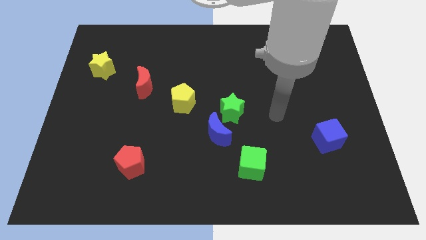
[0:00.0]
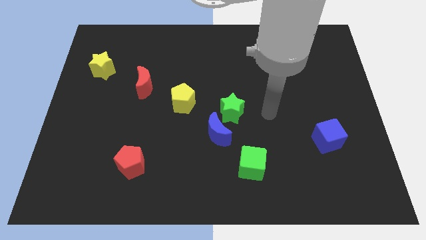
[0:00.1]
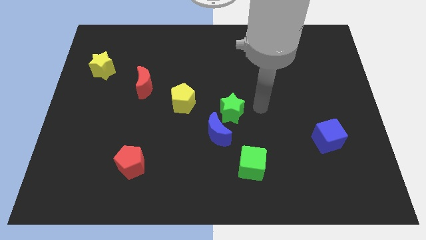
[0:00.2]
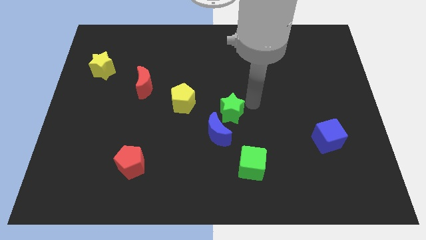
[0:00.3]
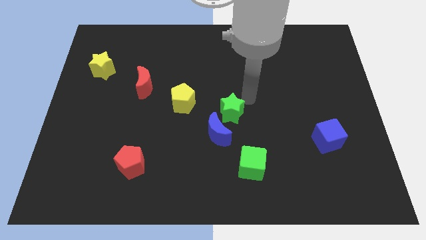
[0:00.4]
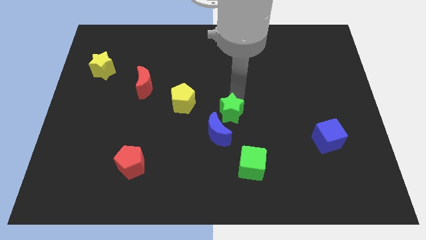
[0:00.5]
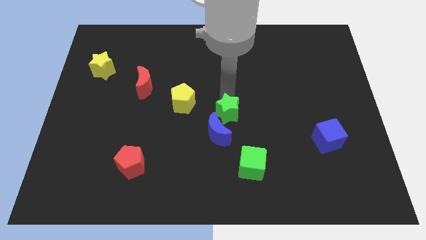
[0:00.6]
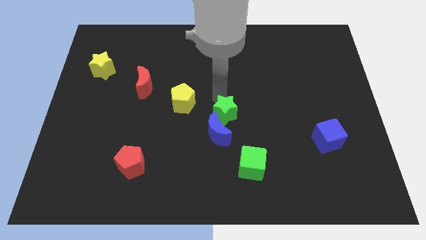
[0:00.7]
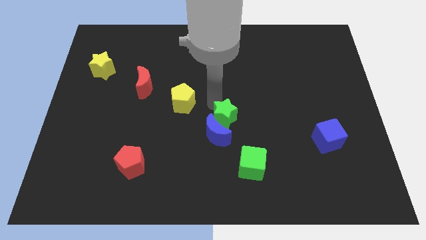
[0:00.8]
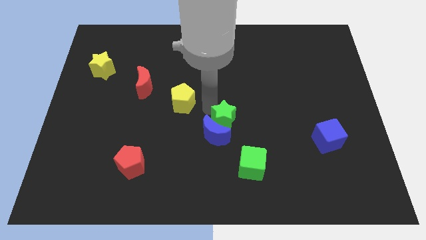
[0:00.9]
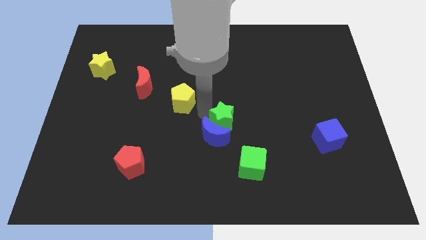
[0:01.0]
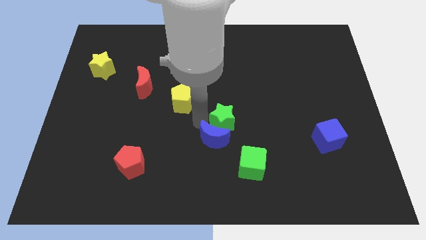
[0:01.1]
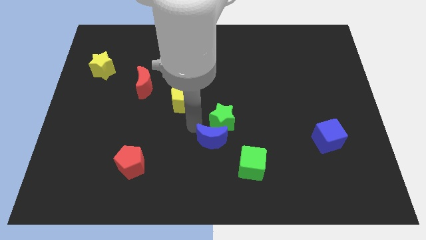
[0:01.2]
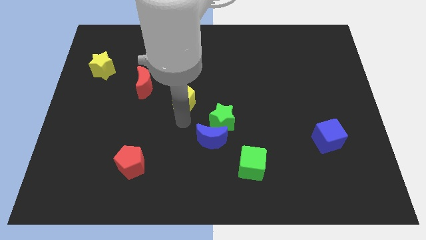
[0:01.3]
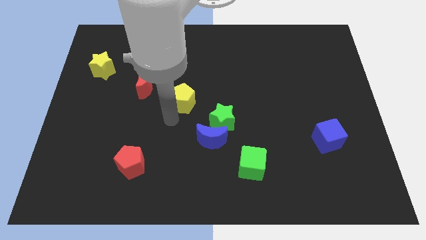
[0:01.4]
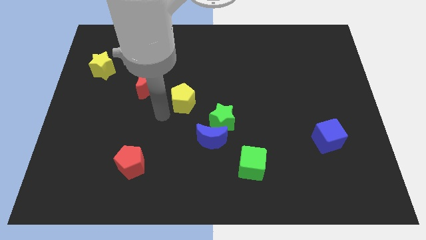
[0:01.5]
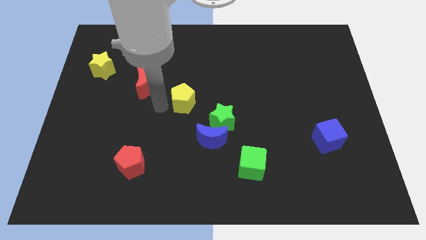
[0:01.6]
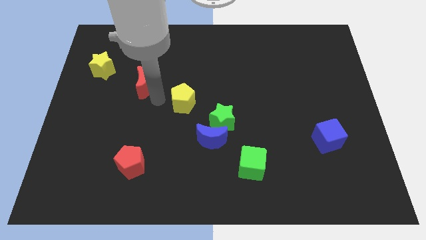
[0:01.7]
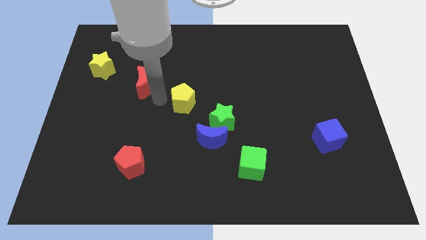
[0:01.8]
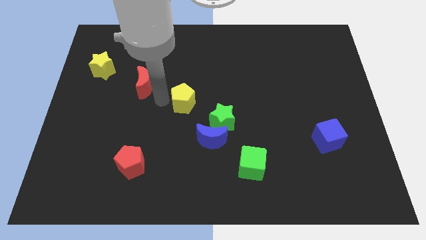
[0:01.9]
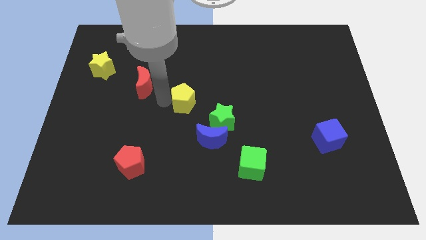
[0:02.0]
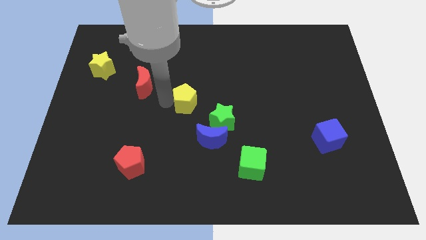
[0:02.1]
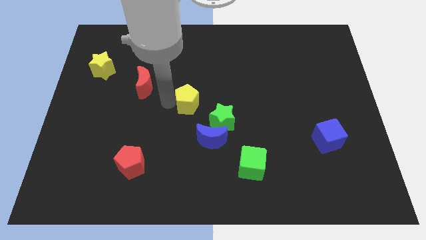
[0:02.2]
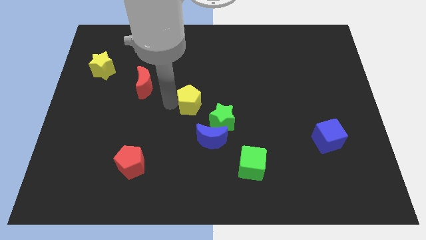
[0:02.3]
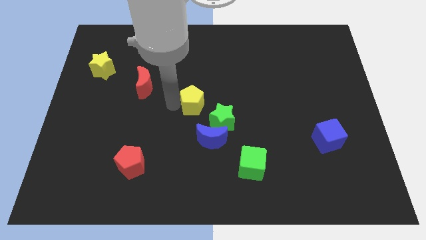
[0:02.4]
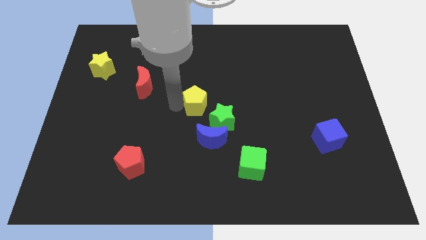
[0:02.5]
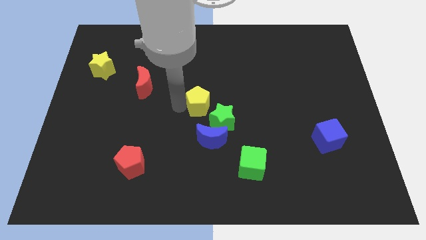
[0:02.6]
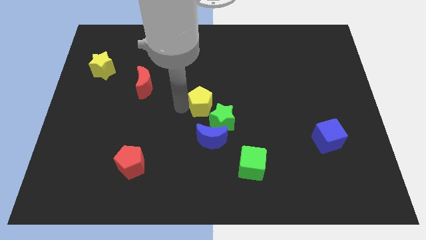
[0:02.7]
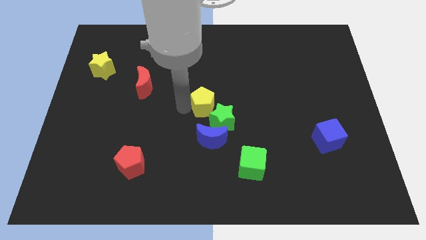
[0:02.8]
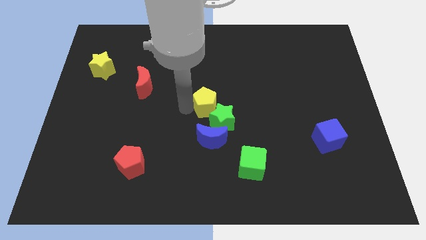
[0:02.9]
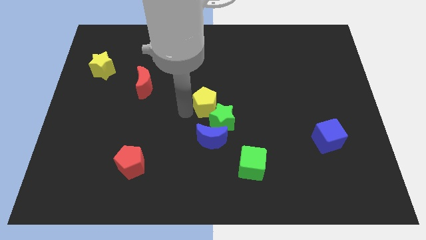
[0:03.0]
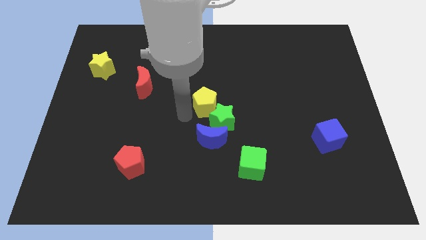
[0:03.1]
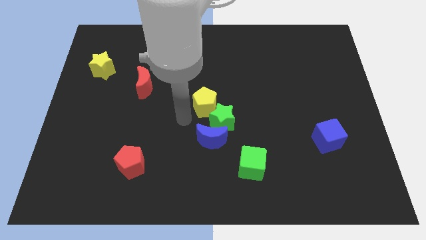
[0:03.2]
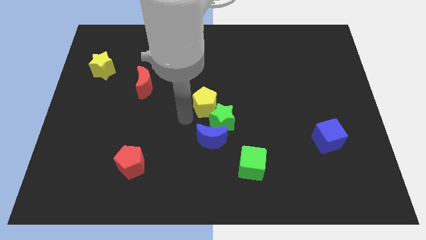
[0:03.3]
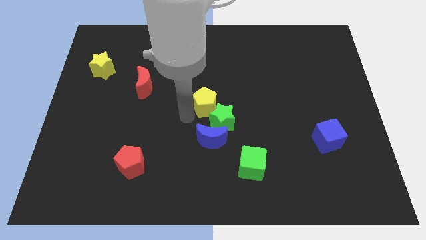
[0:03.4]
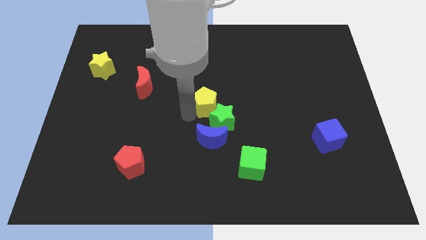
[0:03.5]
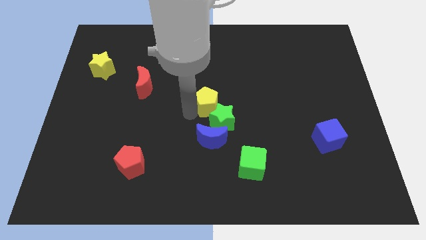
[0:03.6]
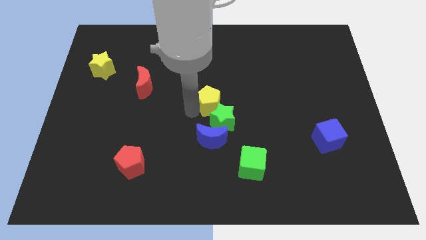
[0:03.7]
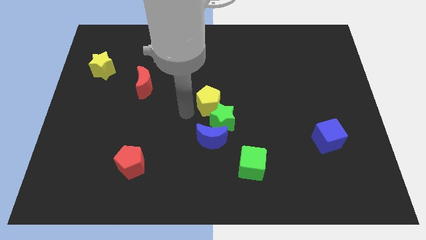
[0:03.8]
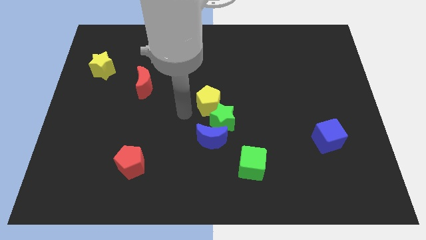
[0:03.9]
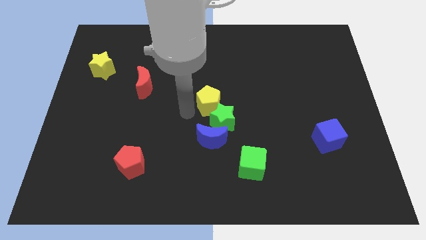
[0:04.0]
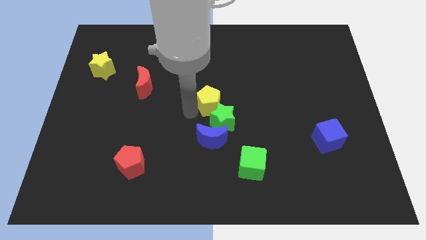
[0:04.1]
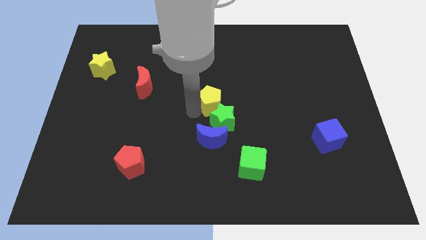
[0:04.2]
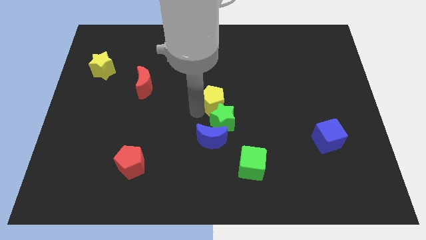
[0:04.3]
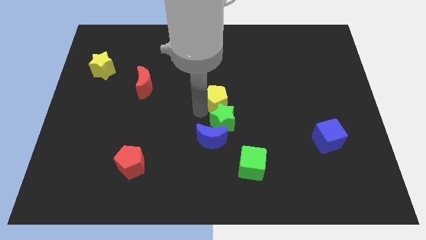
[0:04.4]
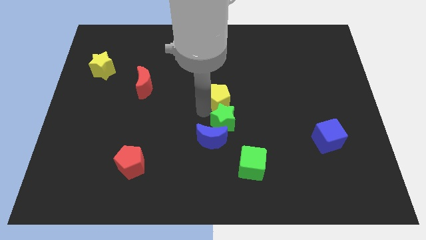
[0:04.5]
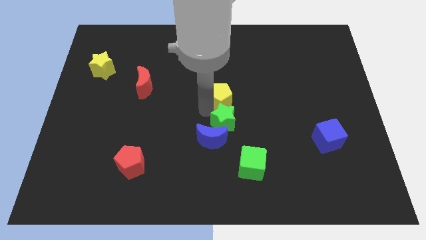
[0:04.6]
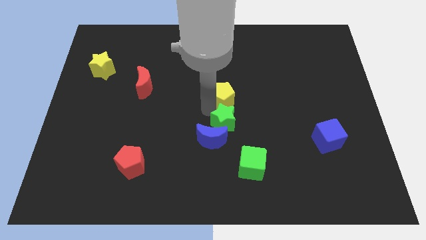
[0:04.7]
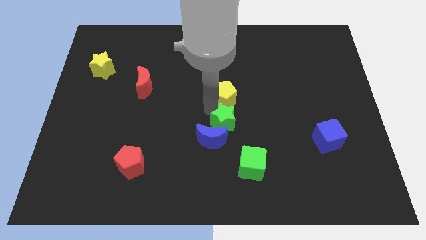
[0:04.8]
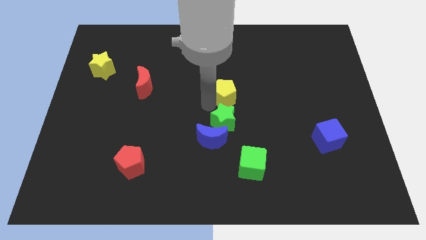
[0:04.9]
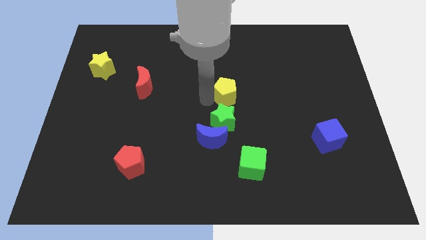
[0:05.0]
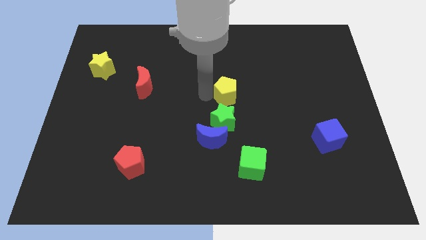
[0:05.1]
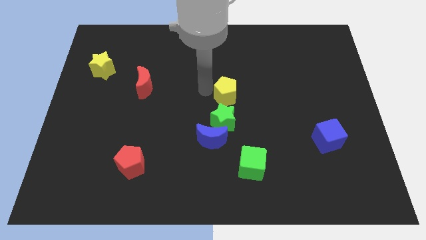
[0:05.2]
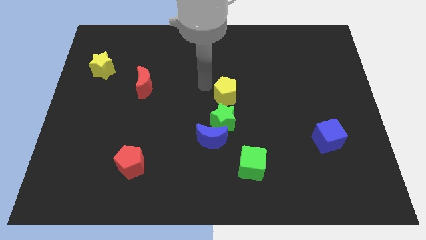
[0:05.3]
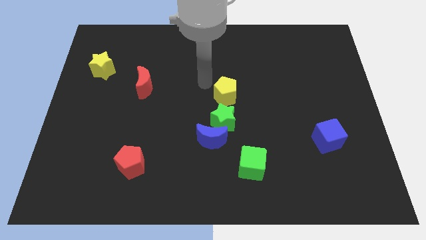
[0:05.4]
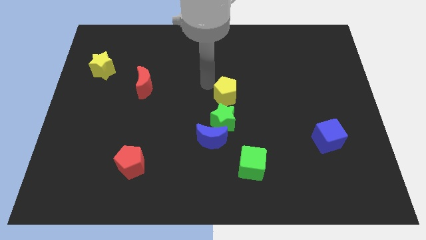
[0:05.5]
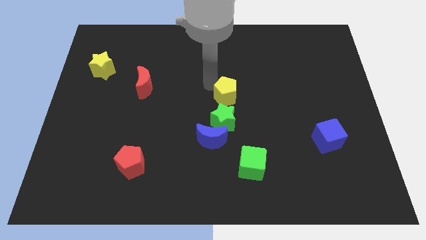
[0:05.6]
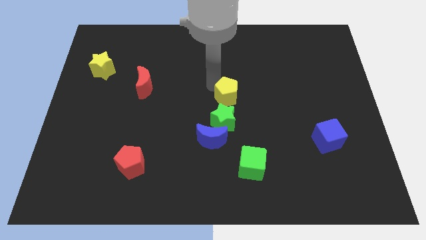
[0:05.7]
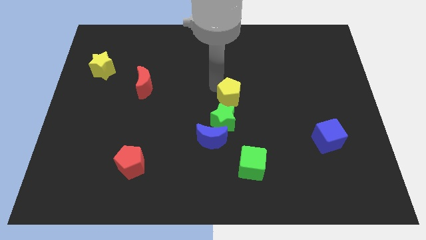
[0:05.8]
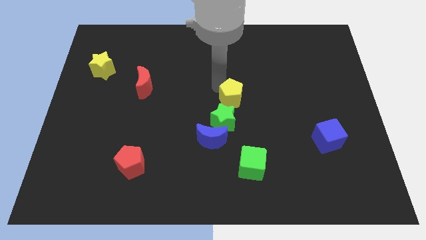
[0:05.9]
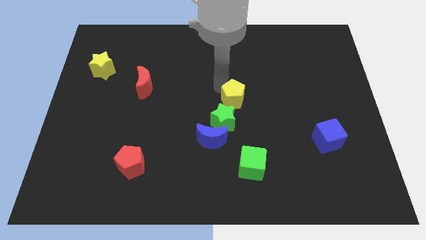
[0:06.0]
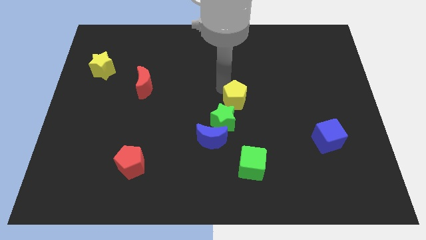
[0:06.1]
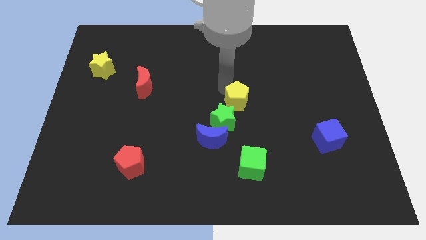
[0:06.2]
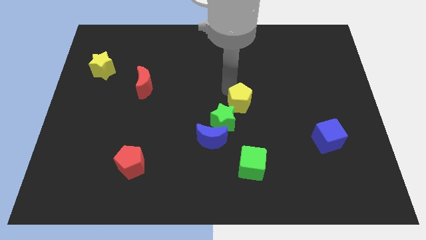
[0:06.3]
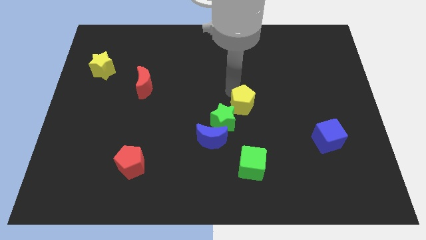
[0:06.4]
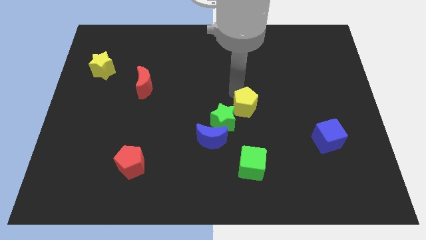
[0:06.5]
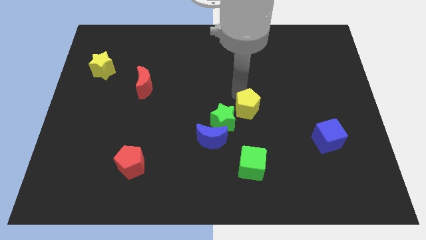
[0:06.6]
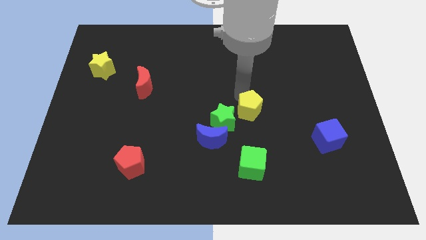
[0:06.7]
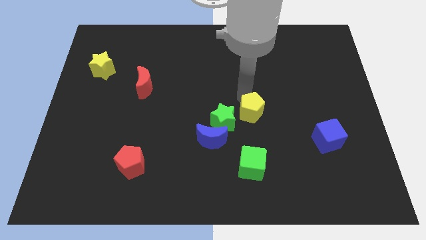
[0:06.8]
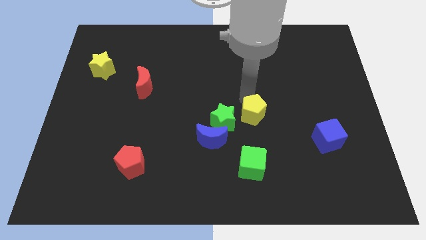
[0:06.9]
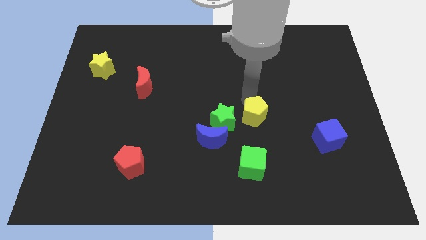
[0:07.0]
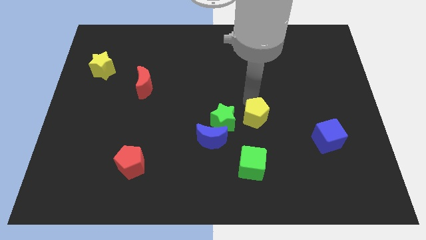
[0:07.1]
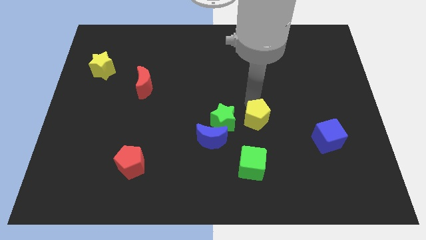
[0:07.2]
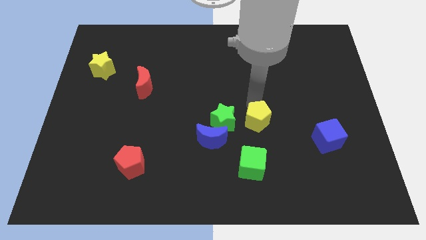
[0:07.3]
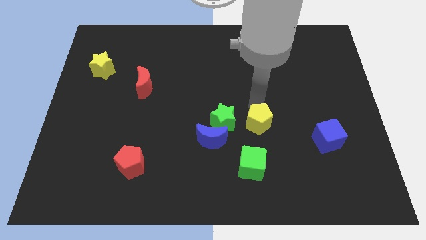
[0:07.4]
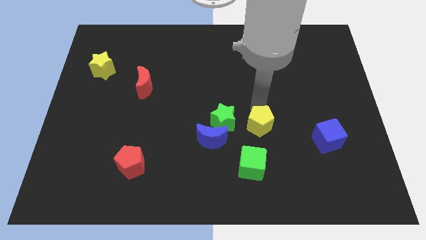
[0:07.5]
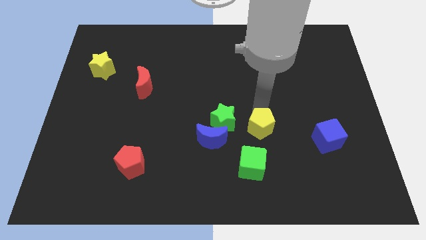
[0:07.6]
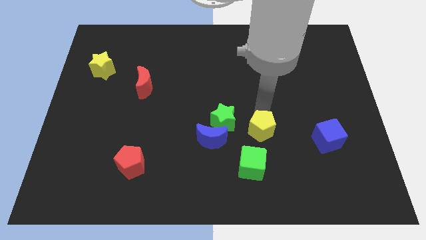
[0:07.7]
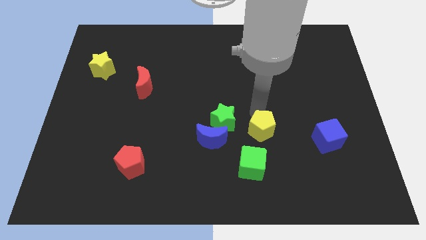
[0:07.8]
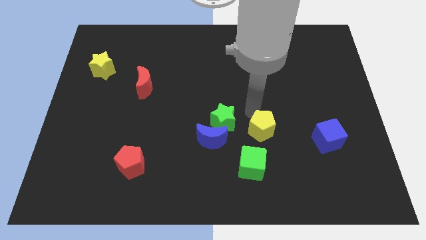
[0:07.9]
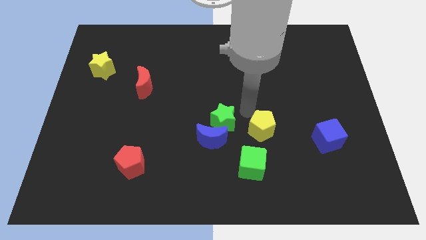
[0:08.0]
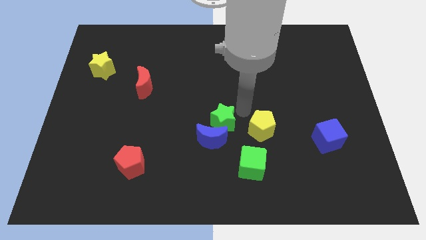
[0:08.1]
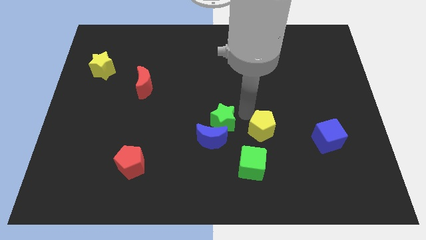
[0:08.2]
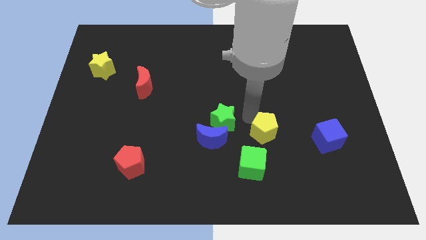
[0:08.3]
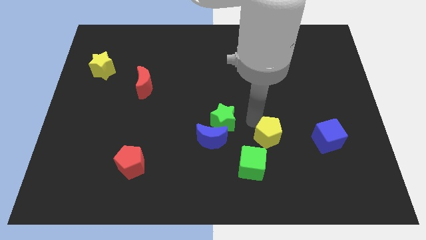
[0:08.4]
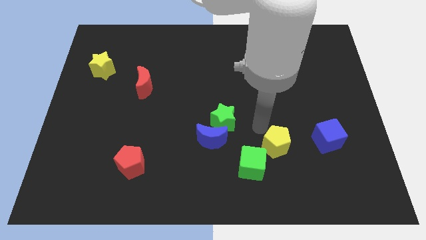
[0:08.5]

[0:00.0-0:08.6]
push the yellow pentagon to the right of the green cube
